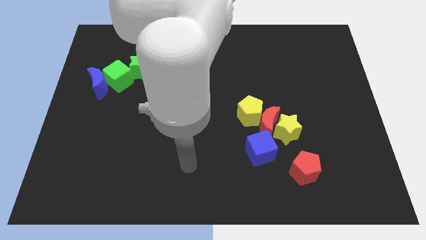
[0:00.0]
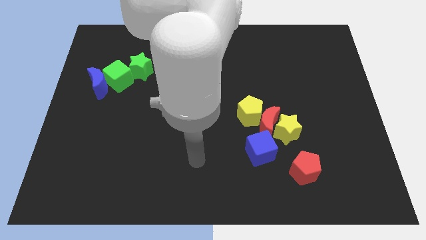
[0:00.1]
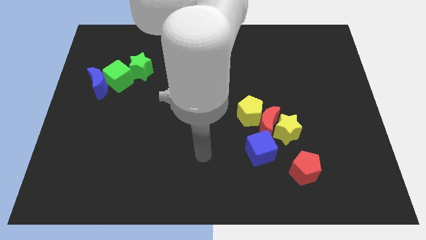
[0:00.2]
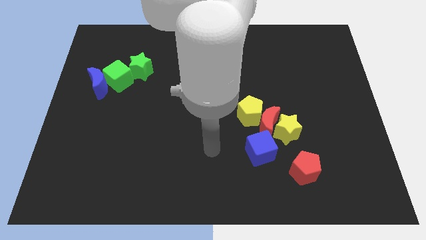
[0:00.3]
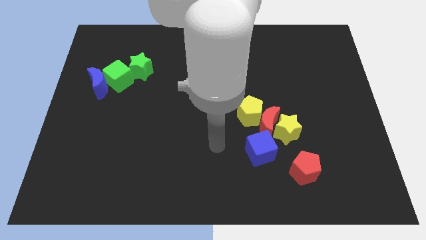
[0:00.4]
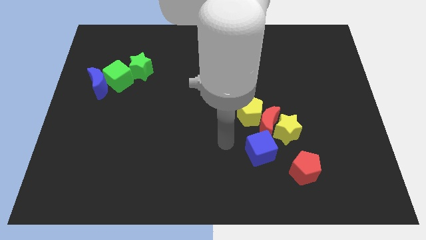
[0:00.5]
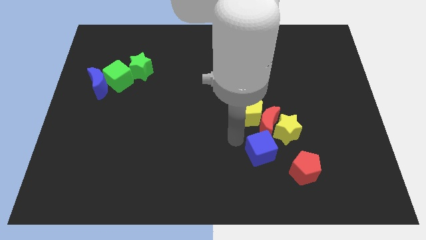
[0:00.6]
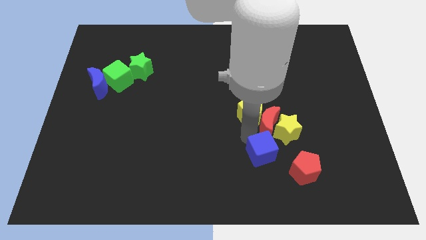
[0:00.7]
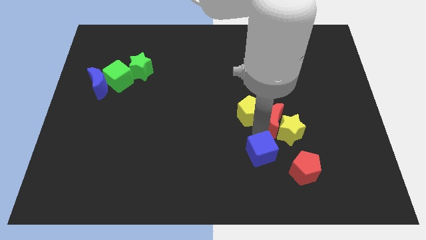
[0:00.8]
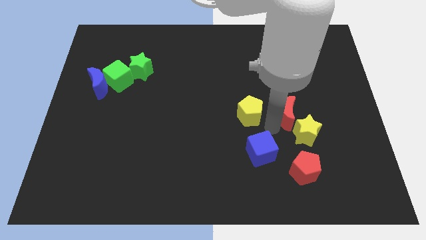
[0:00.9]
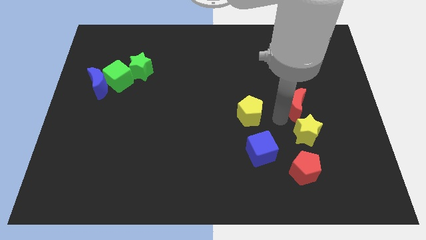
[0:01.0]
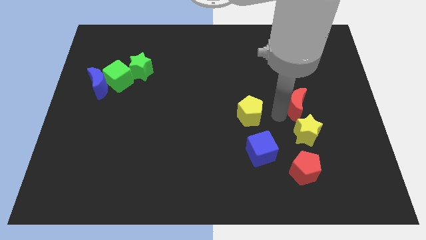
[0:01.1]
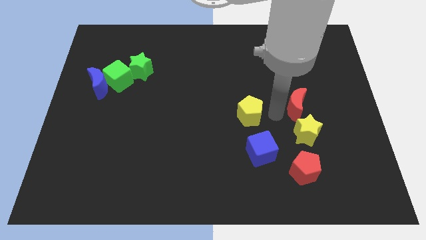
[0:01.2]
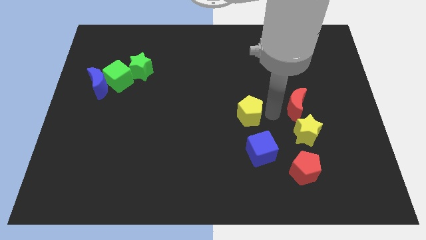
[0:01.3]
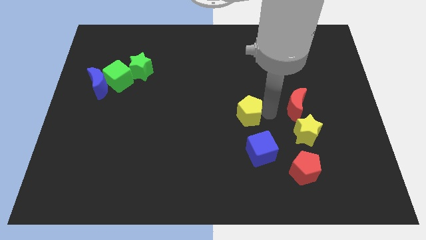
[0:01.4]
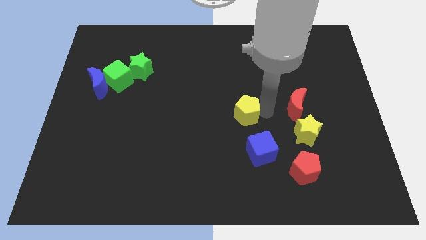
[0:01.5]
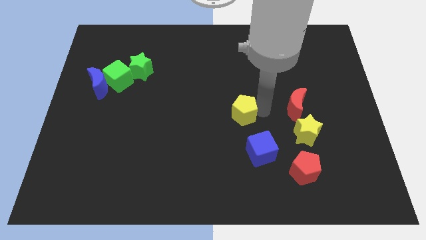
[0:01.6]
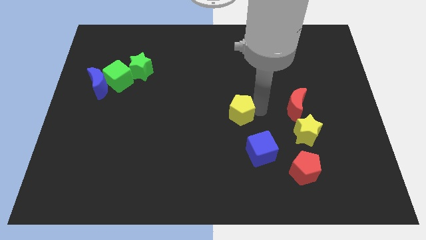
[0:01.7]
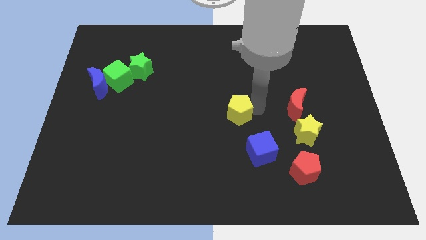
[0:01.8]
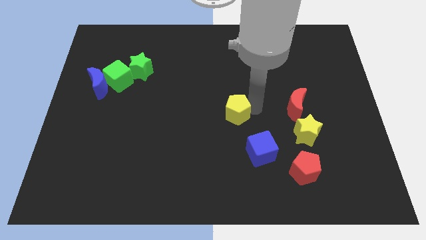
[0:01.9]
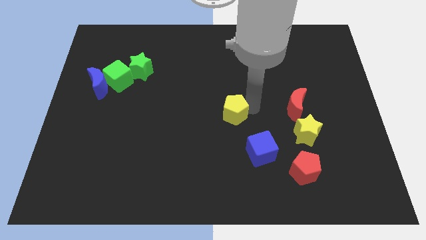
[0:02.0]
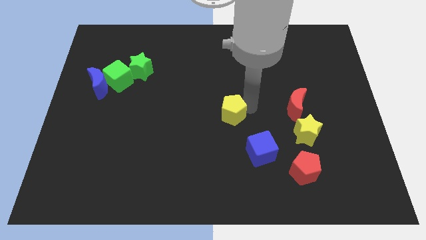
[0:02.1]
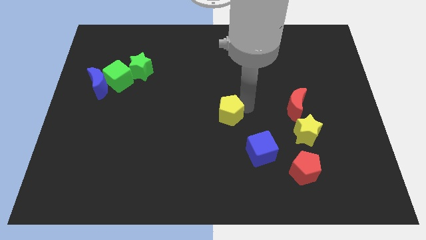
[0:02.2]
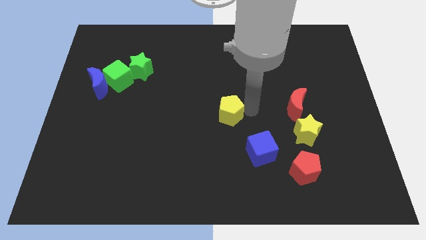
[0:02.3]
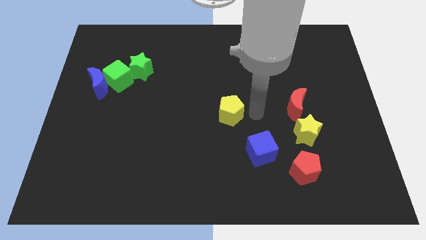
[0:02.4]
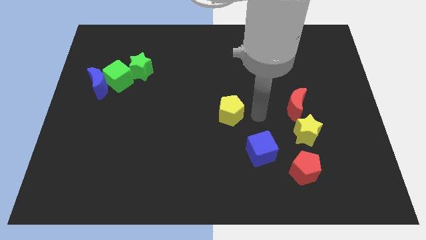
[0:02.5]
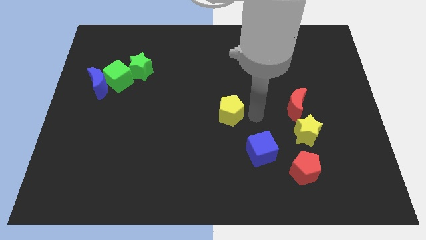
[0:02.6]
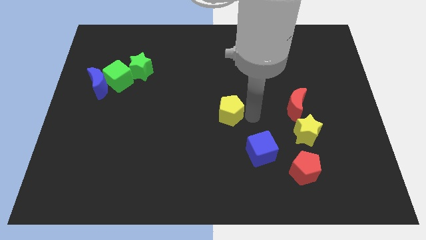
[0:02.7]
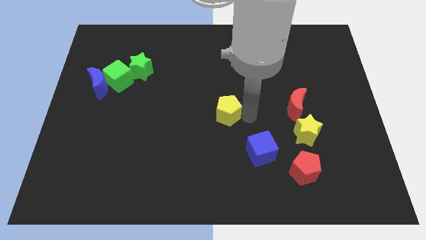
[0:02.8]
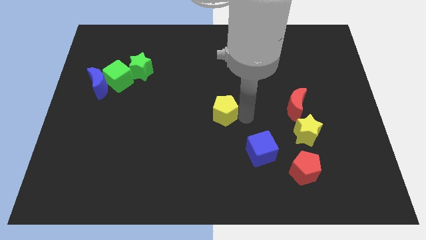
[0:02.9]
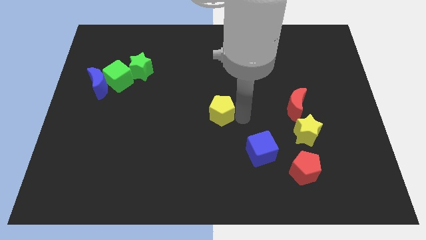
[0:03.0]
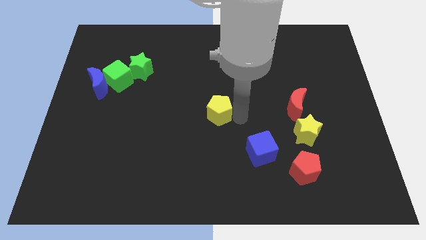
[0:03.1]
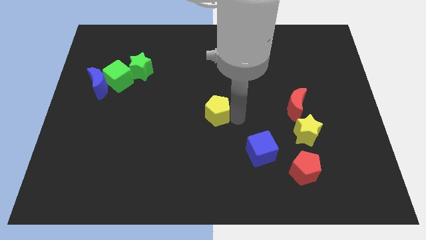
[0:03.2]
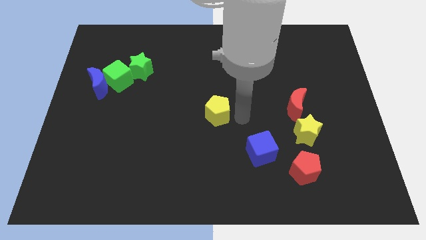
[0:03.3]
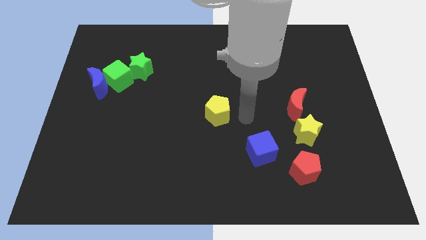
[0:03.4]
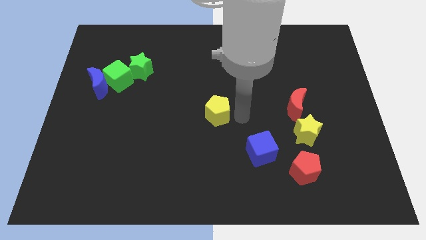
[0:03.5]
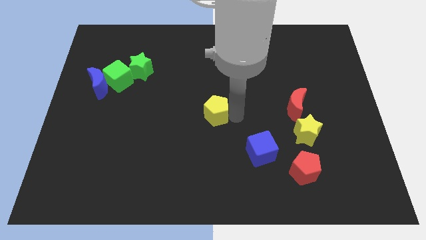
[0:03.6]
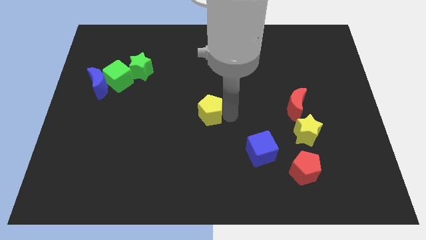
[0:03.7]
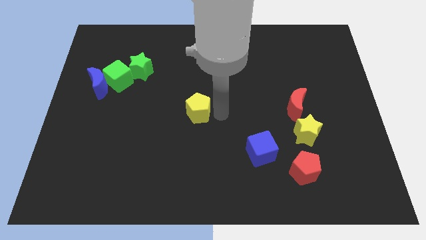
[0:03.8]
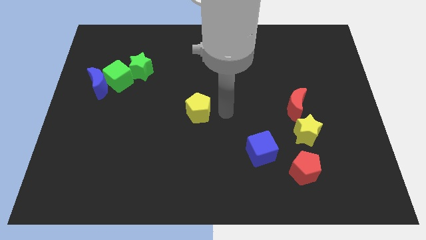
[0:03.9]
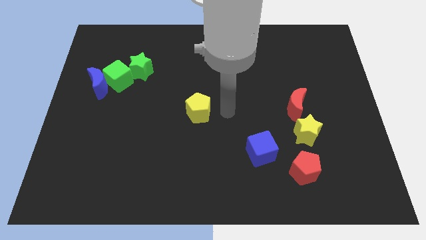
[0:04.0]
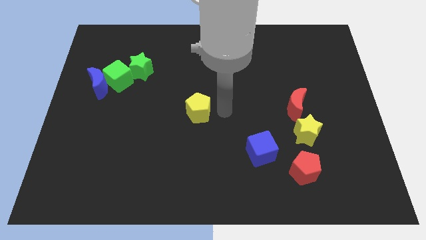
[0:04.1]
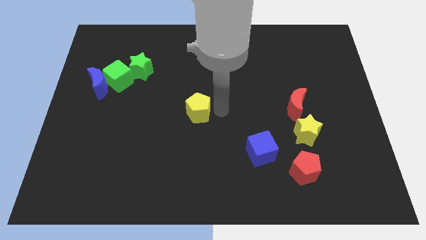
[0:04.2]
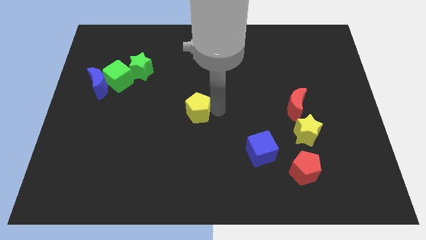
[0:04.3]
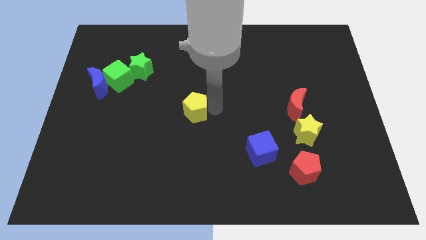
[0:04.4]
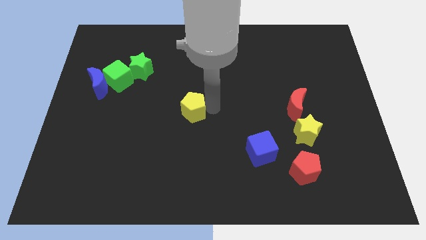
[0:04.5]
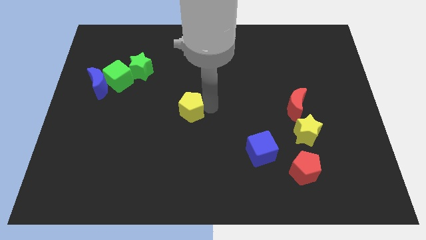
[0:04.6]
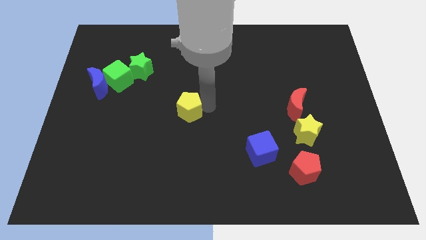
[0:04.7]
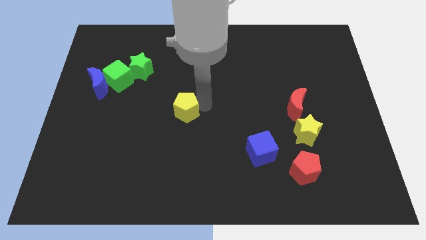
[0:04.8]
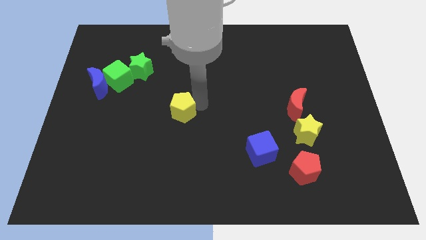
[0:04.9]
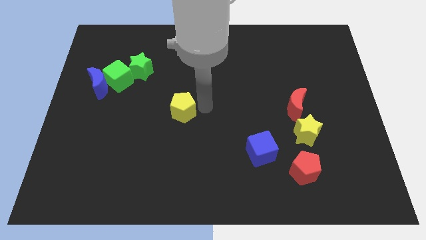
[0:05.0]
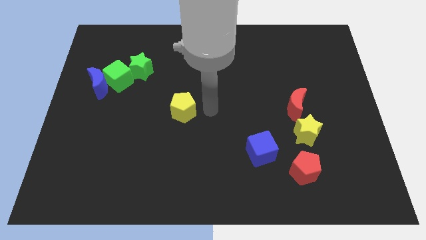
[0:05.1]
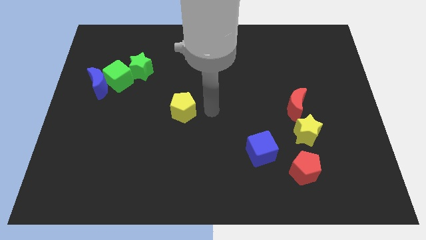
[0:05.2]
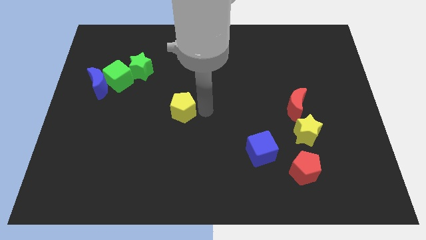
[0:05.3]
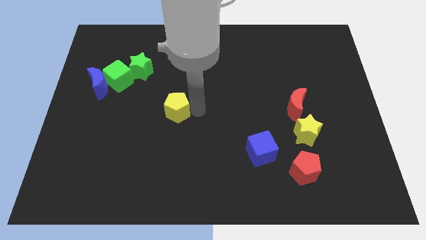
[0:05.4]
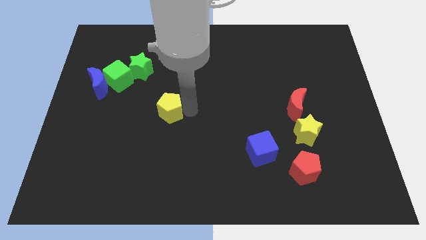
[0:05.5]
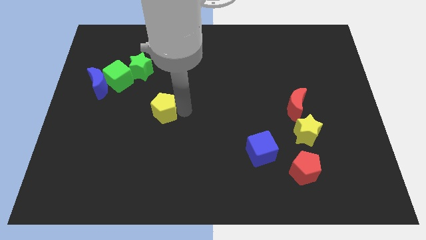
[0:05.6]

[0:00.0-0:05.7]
push the yellow pentagon to the left

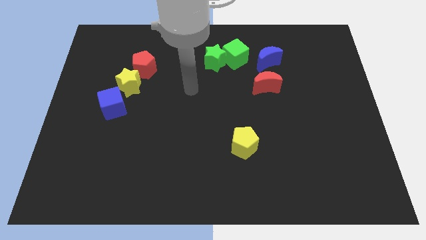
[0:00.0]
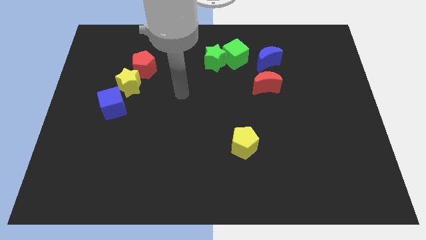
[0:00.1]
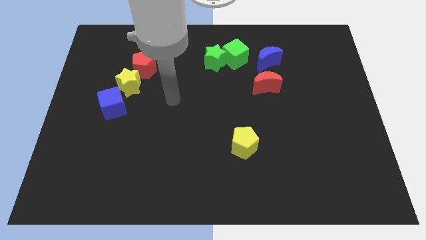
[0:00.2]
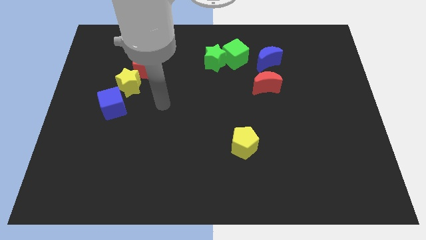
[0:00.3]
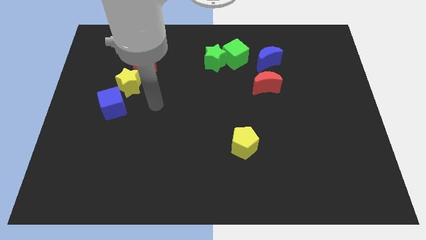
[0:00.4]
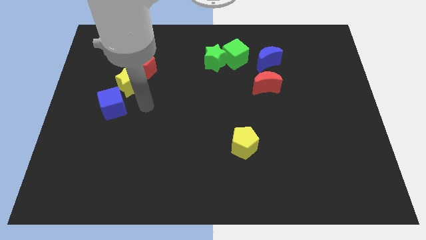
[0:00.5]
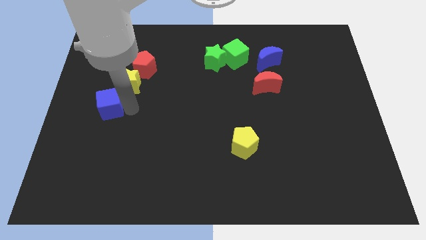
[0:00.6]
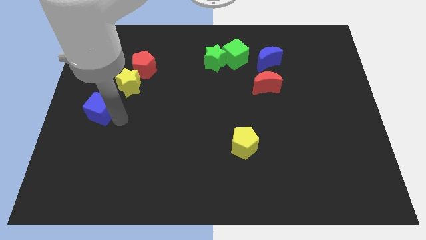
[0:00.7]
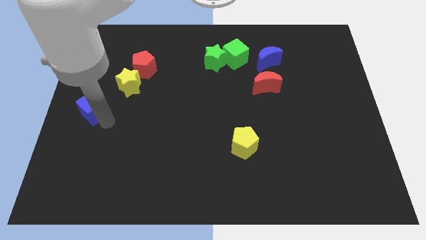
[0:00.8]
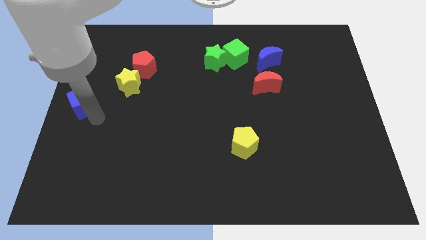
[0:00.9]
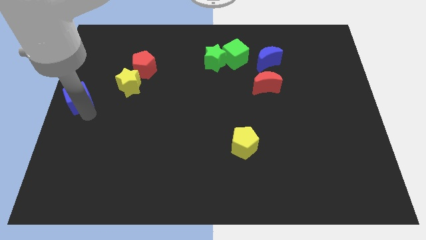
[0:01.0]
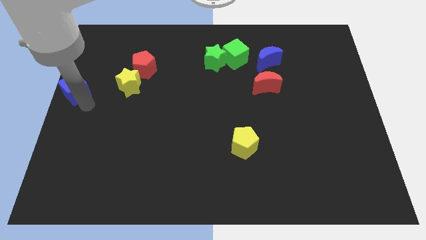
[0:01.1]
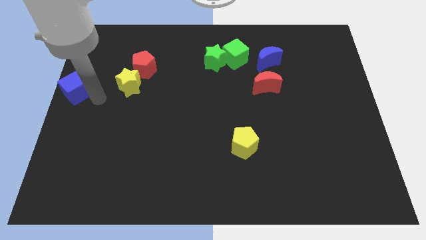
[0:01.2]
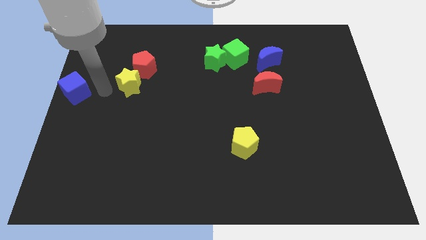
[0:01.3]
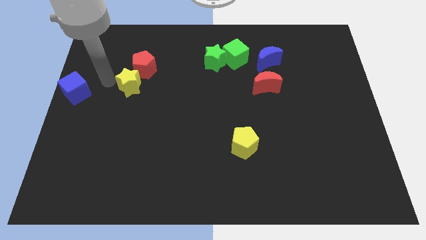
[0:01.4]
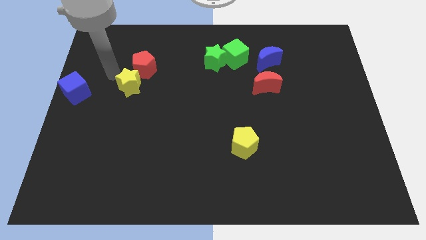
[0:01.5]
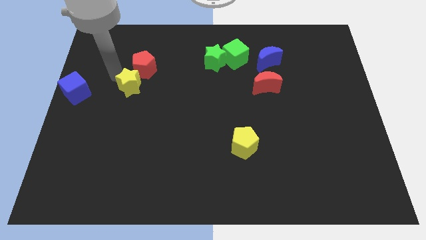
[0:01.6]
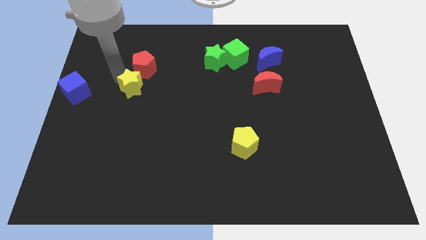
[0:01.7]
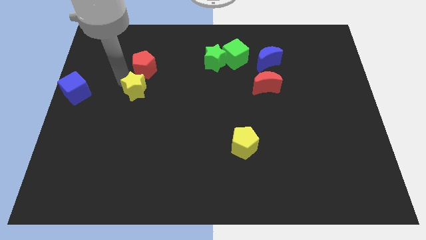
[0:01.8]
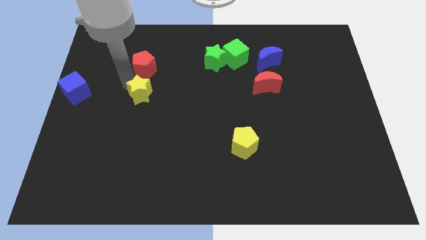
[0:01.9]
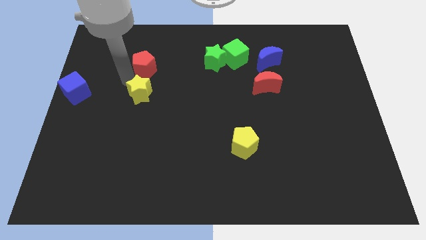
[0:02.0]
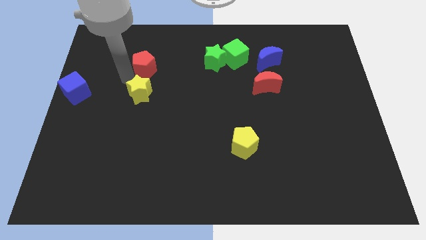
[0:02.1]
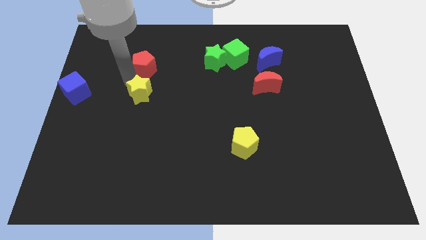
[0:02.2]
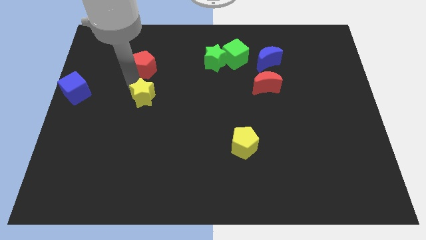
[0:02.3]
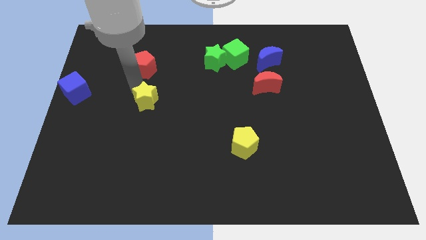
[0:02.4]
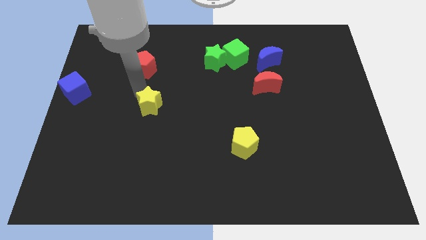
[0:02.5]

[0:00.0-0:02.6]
push the yellow star diagonally down and right a little bit
